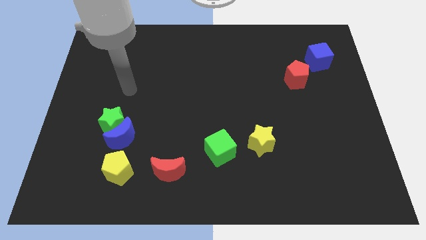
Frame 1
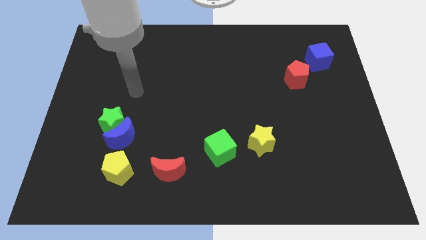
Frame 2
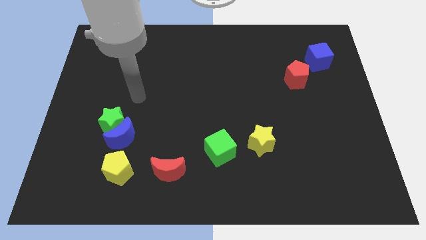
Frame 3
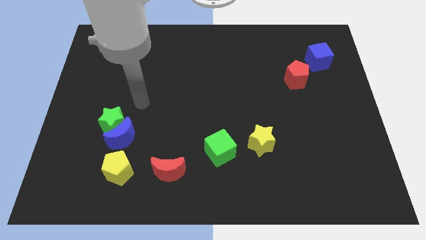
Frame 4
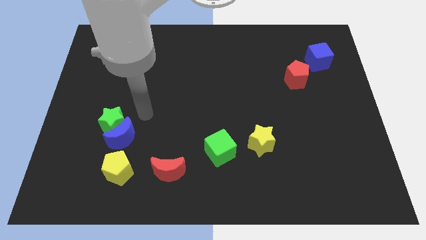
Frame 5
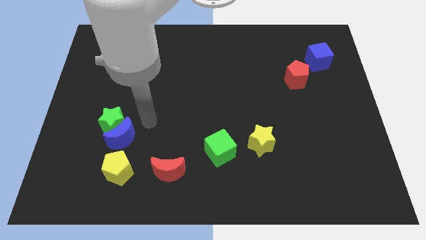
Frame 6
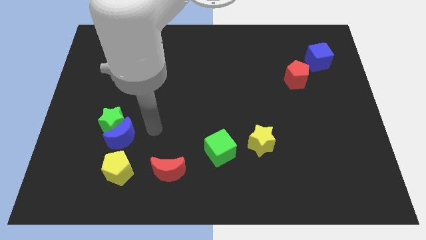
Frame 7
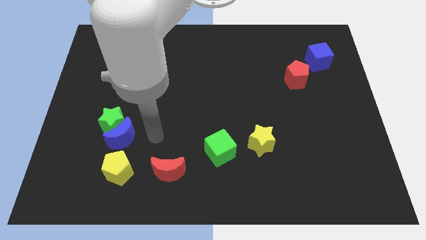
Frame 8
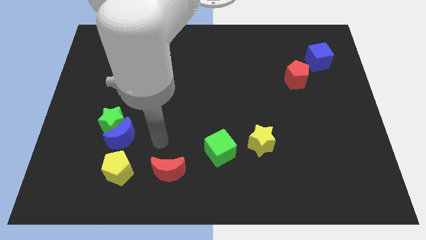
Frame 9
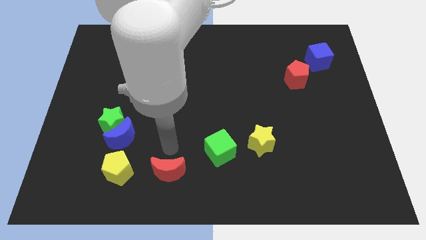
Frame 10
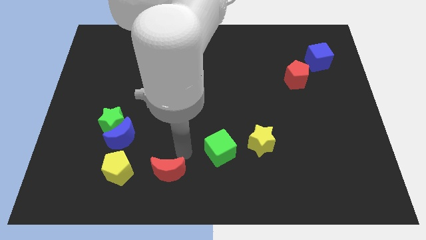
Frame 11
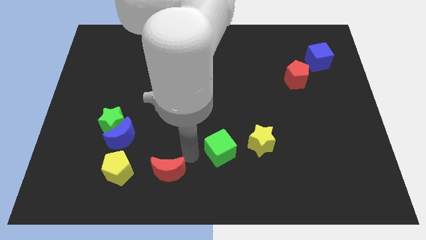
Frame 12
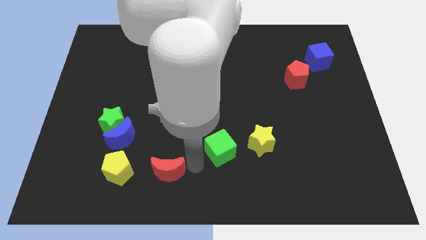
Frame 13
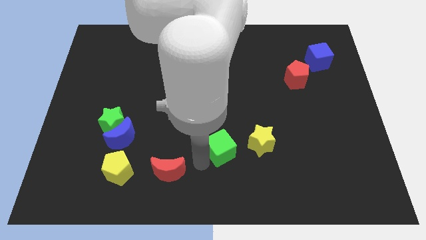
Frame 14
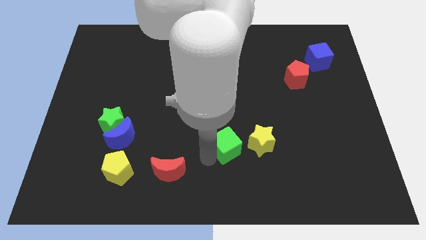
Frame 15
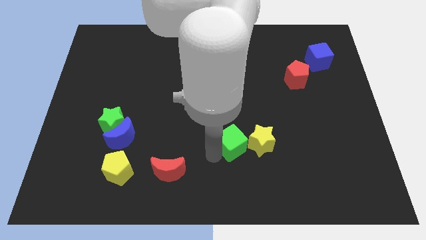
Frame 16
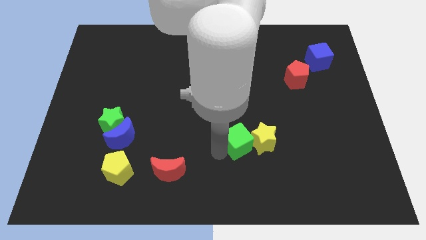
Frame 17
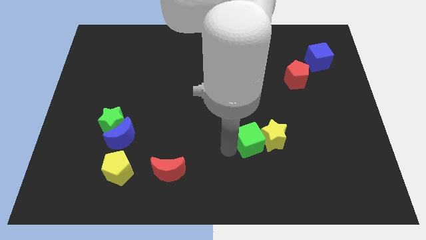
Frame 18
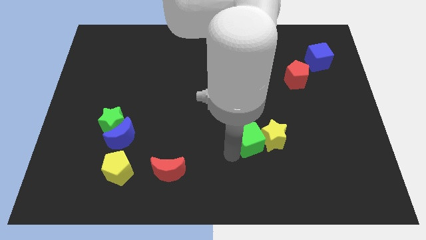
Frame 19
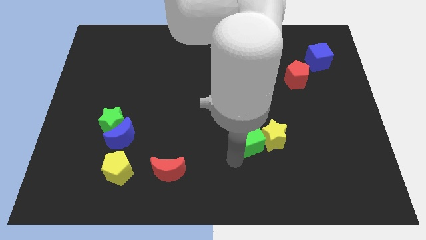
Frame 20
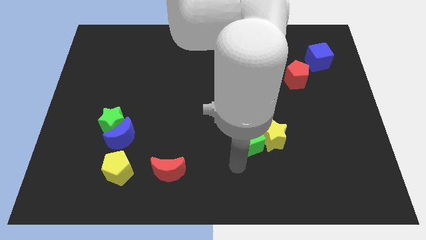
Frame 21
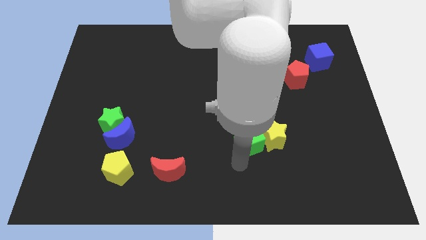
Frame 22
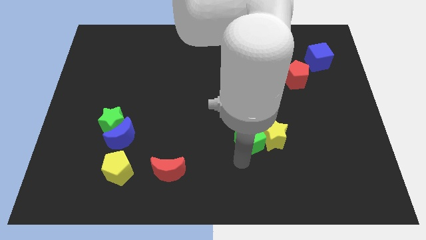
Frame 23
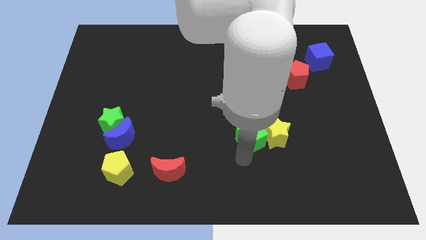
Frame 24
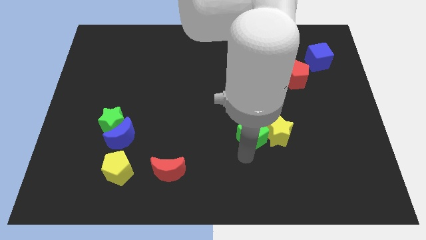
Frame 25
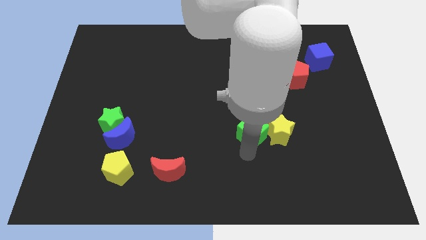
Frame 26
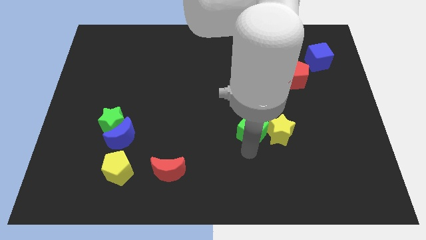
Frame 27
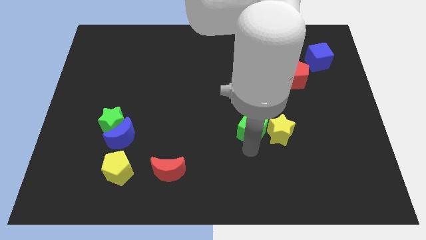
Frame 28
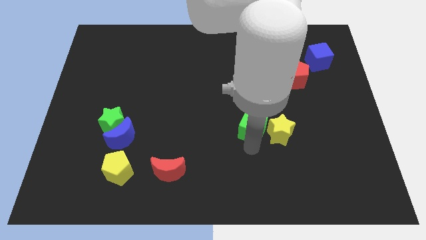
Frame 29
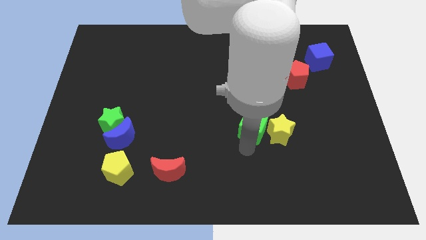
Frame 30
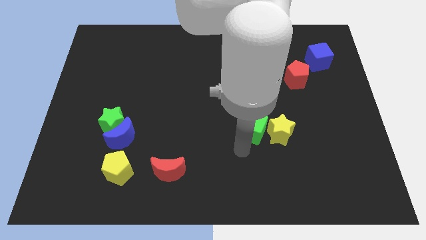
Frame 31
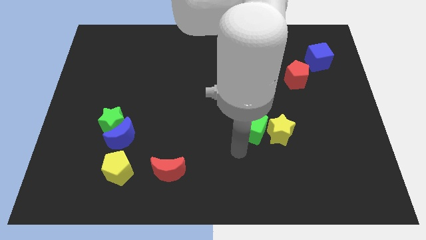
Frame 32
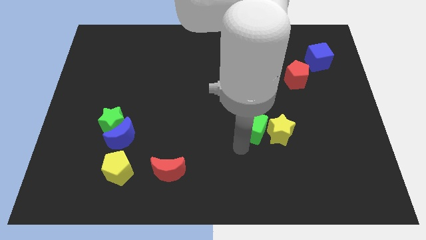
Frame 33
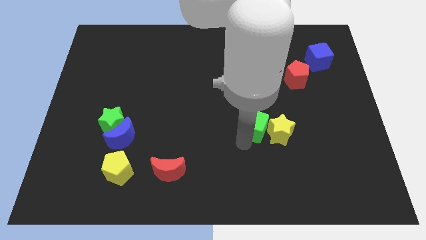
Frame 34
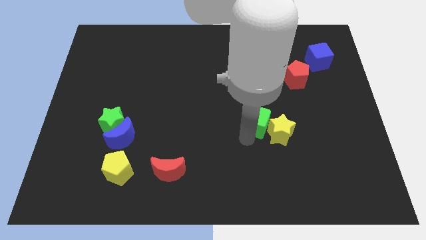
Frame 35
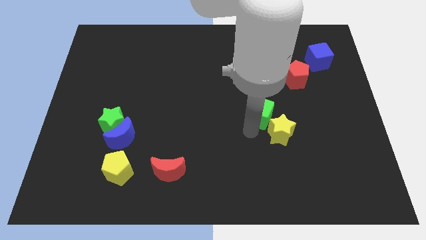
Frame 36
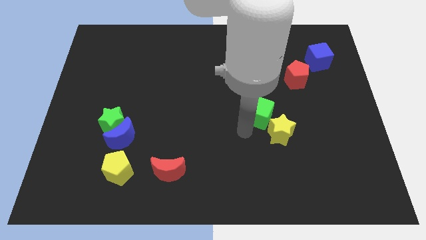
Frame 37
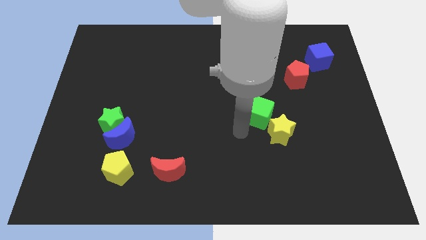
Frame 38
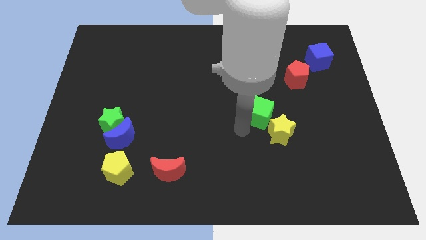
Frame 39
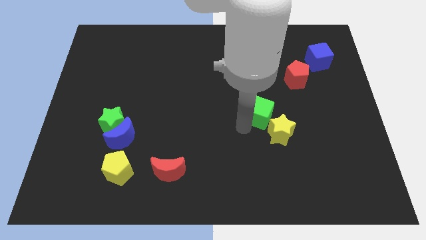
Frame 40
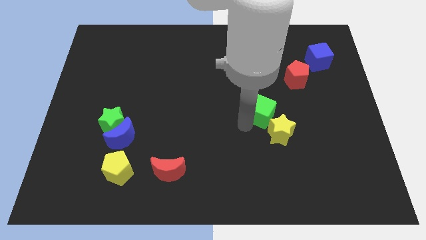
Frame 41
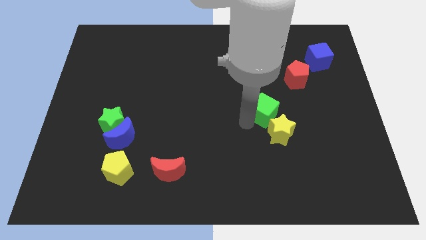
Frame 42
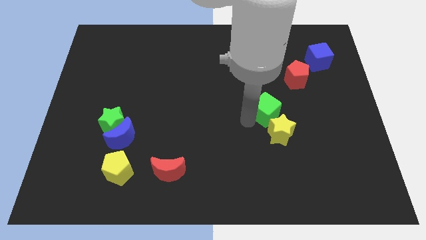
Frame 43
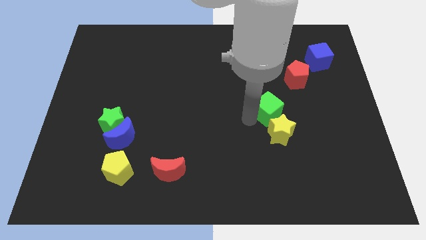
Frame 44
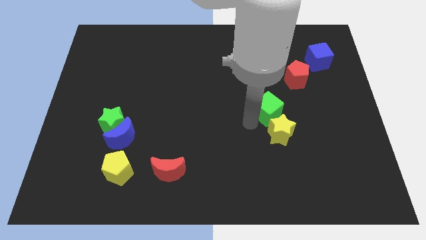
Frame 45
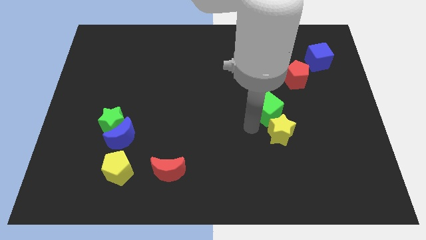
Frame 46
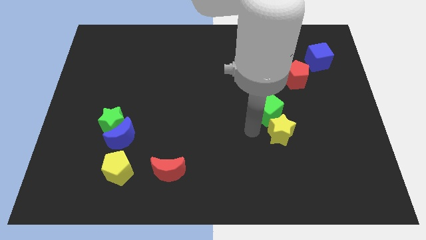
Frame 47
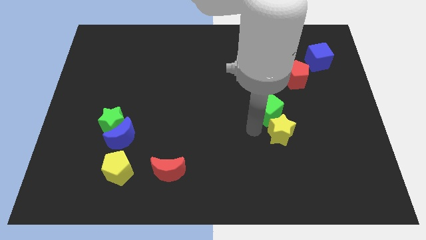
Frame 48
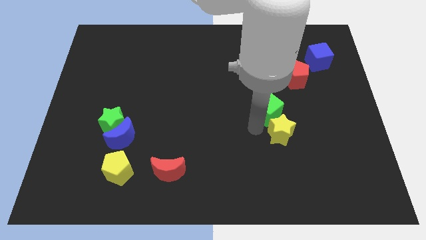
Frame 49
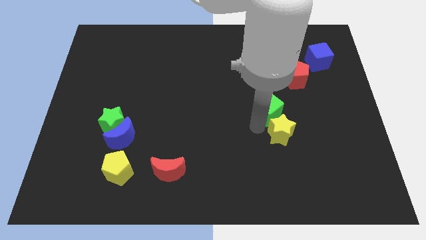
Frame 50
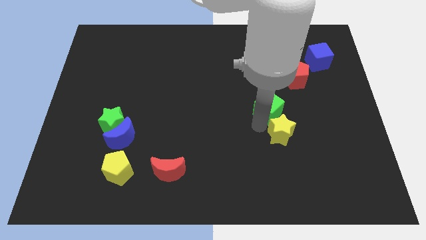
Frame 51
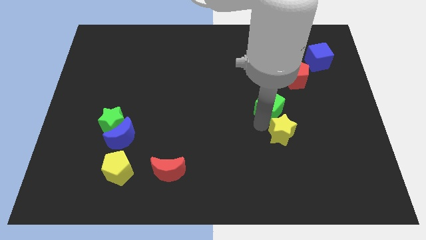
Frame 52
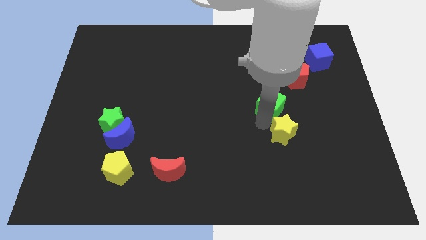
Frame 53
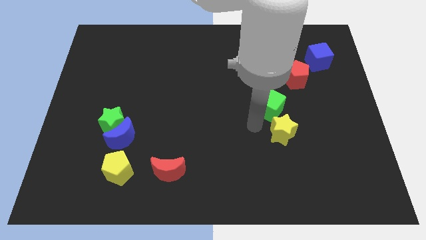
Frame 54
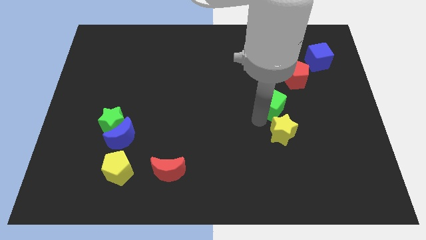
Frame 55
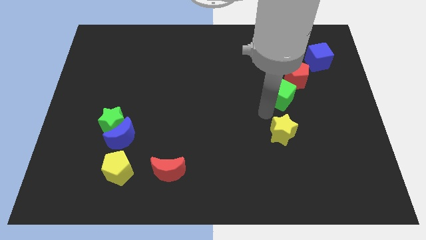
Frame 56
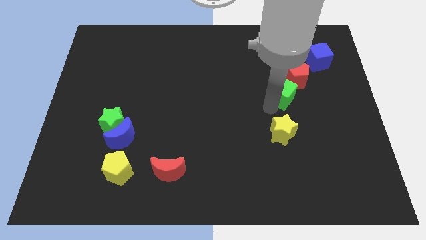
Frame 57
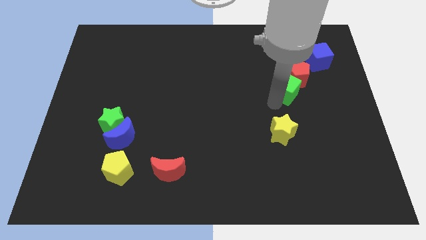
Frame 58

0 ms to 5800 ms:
push the green cube close to the red pentagon
